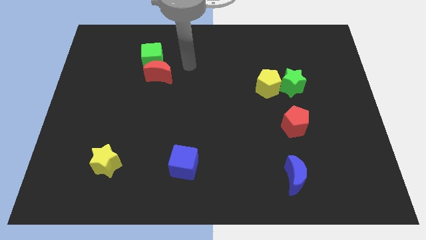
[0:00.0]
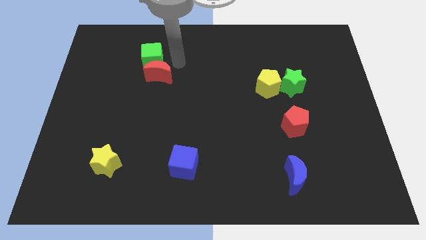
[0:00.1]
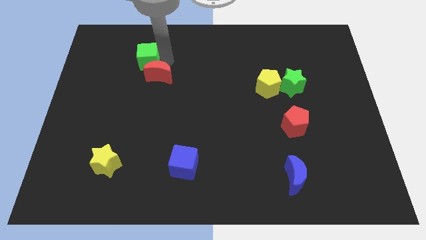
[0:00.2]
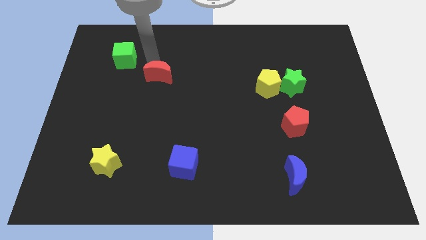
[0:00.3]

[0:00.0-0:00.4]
move the red moon away from the green cube

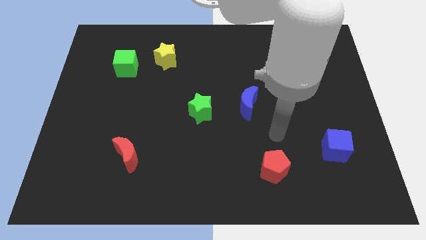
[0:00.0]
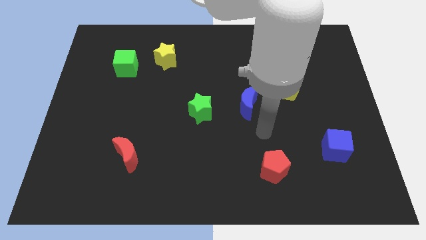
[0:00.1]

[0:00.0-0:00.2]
pull the green cube apart from the yellow star

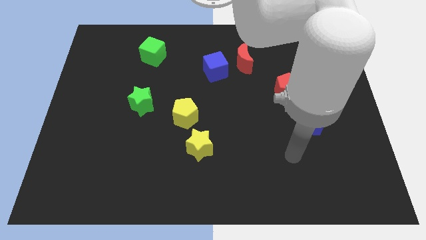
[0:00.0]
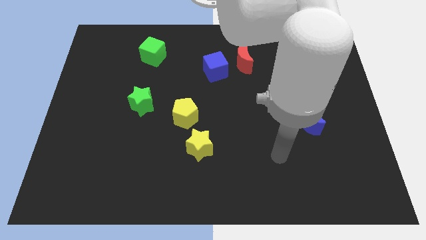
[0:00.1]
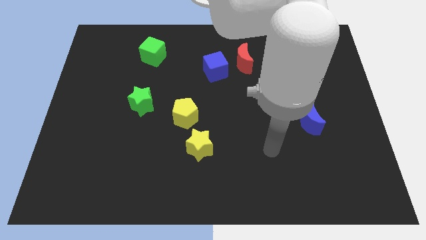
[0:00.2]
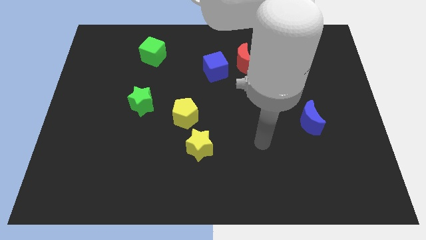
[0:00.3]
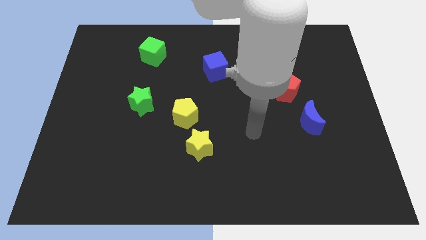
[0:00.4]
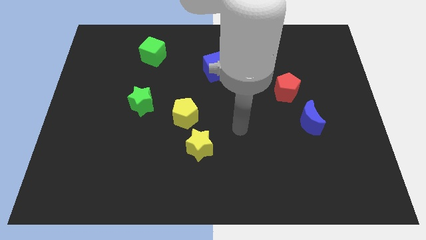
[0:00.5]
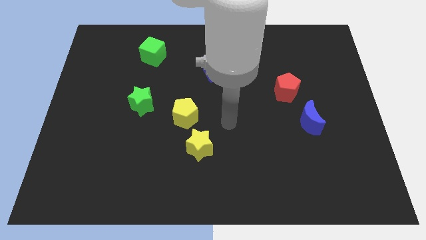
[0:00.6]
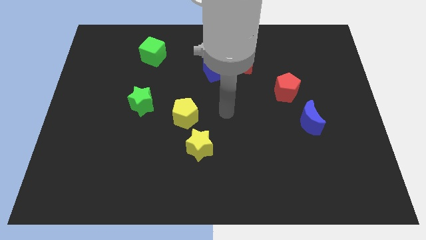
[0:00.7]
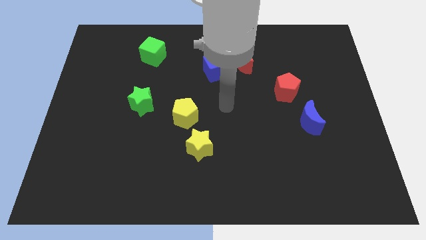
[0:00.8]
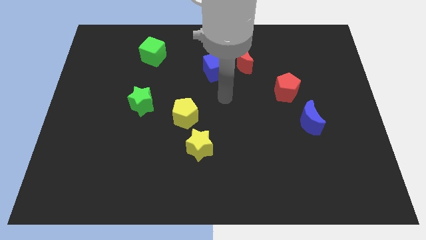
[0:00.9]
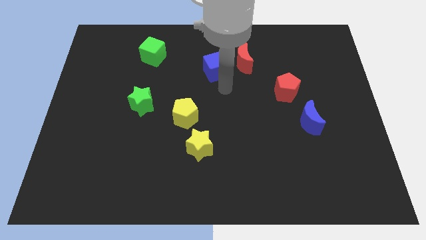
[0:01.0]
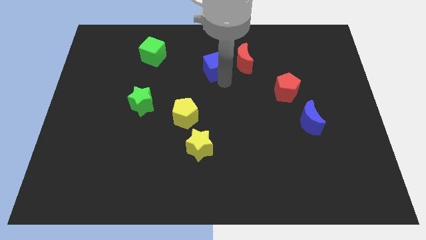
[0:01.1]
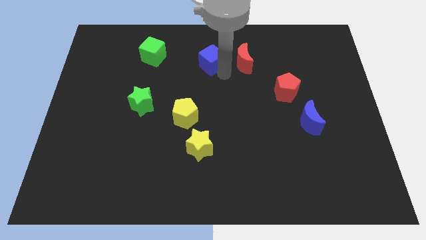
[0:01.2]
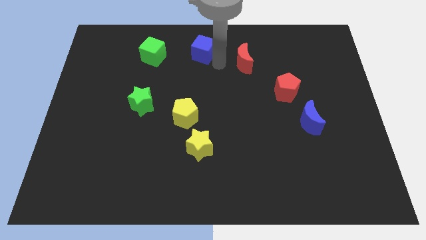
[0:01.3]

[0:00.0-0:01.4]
separate the red moon from the blue cube

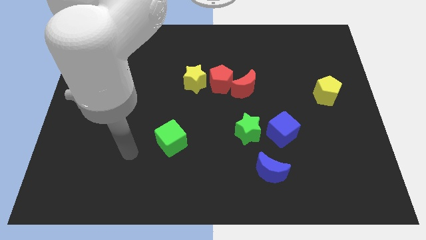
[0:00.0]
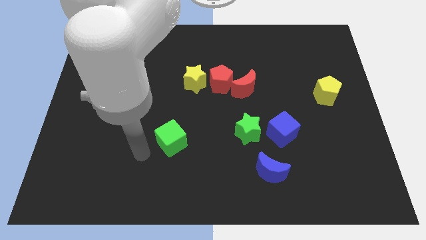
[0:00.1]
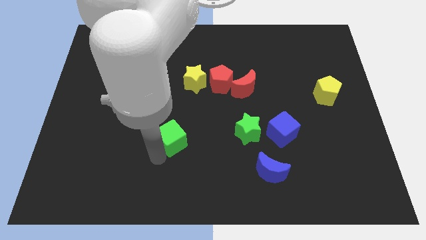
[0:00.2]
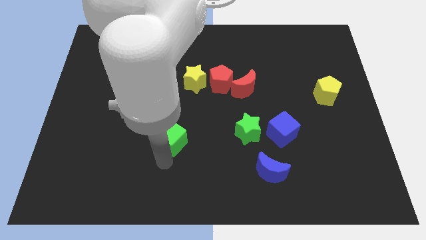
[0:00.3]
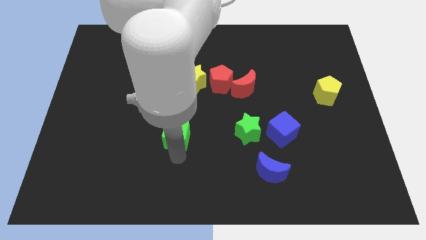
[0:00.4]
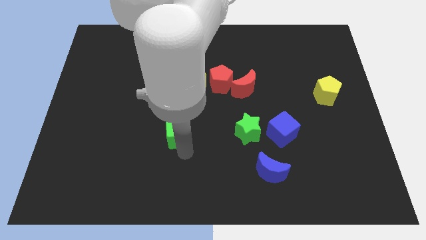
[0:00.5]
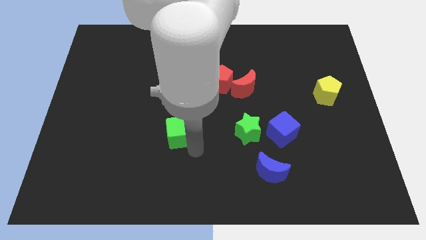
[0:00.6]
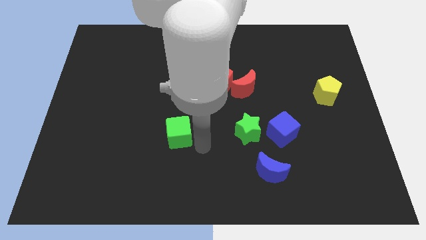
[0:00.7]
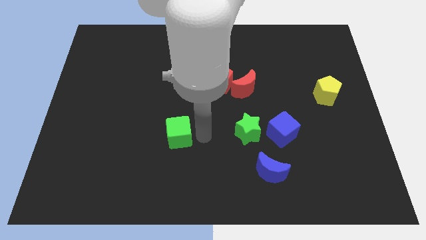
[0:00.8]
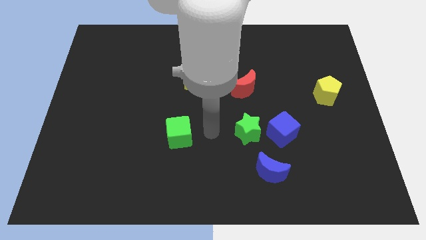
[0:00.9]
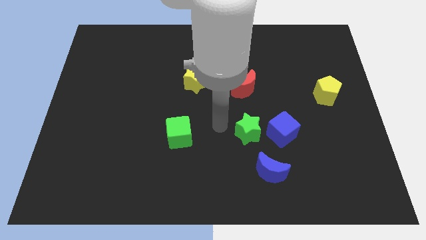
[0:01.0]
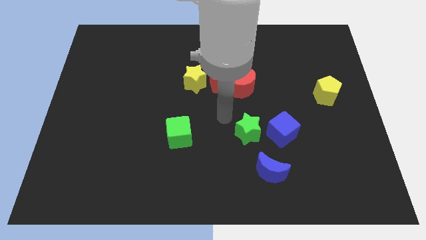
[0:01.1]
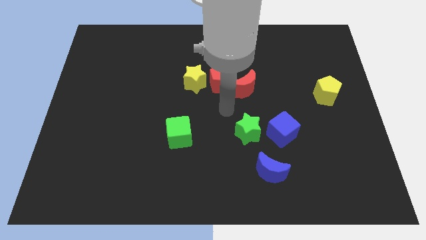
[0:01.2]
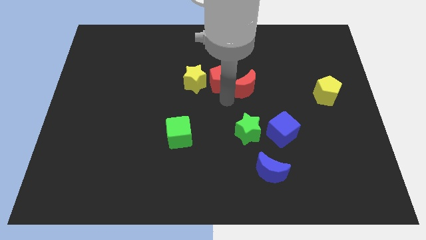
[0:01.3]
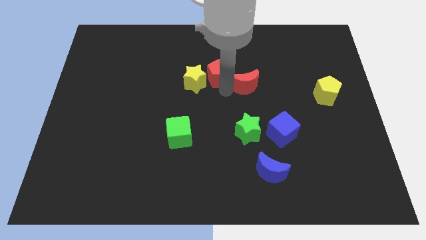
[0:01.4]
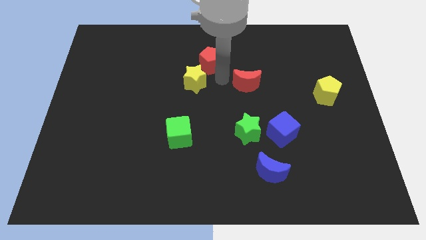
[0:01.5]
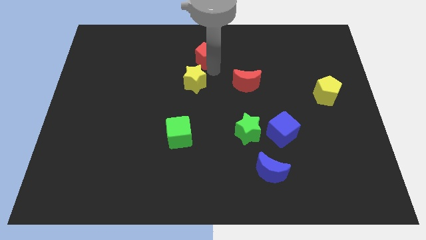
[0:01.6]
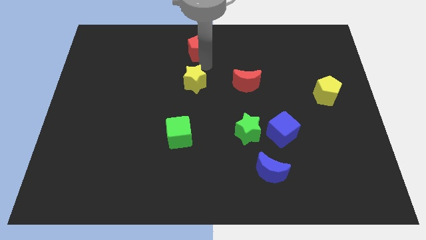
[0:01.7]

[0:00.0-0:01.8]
separate the yellow star from the red pentagon

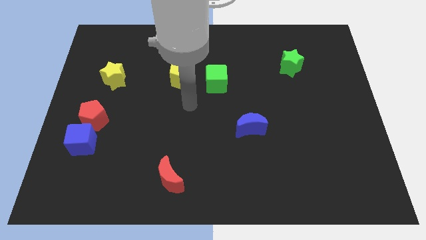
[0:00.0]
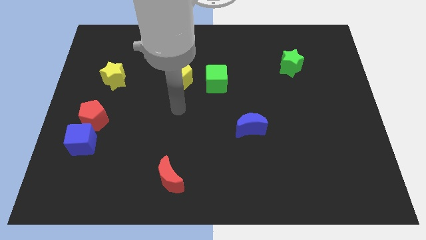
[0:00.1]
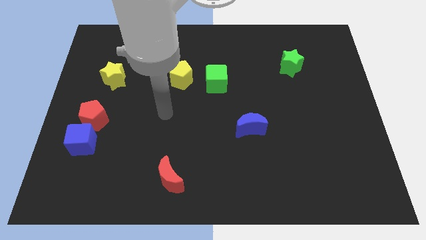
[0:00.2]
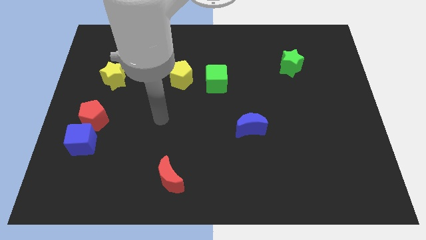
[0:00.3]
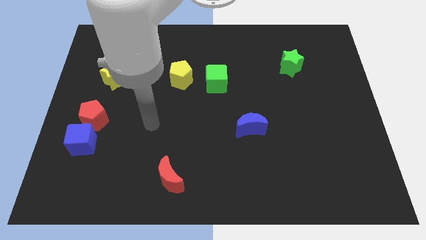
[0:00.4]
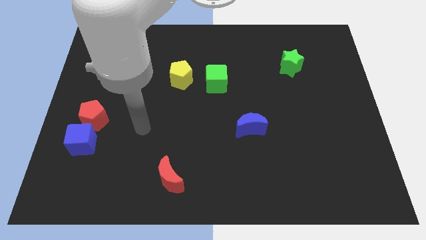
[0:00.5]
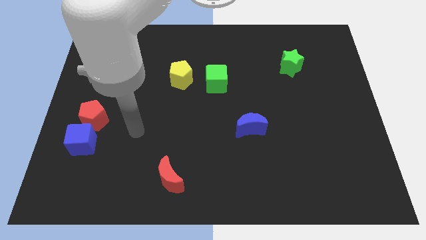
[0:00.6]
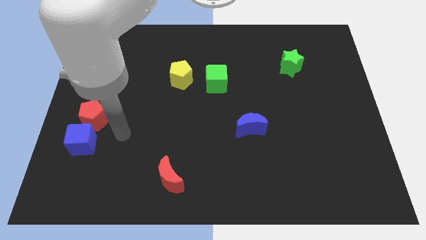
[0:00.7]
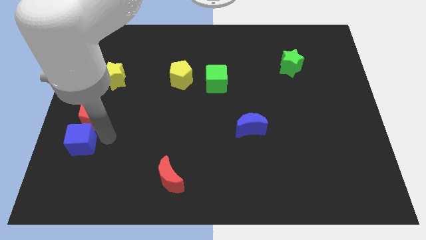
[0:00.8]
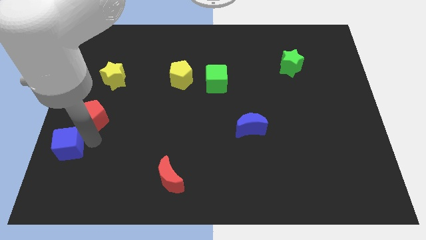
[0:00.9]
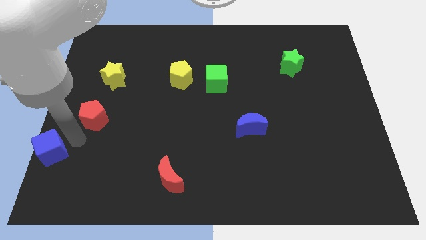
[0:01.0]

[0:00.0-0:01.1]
pull the red pentagon apart from the blue cube

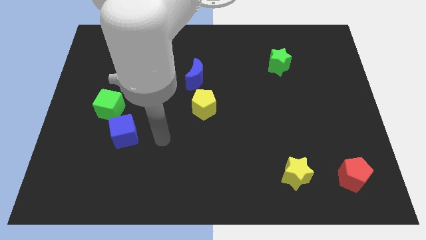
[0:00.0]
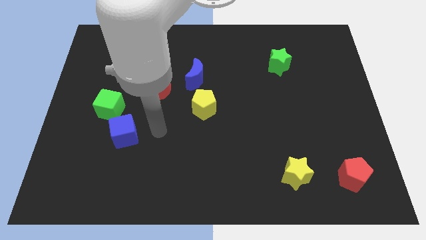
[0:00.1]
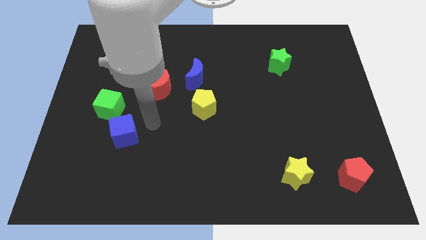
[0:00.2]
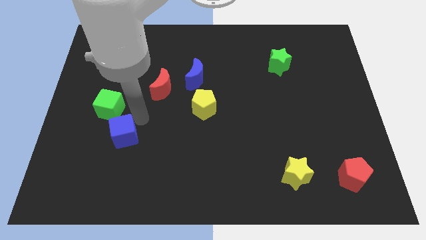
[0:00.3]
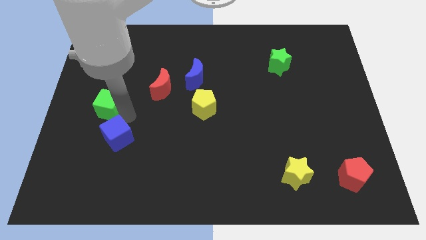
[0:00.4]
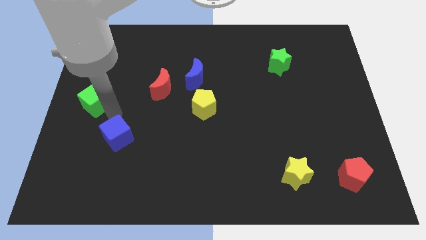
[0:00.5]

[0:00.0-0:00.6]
separate the blue cube from the green cube

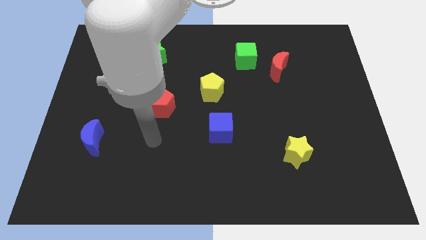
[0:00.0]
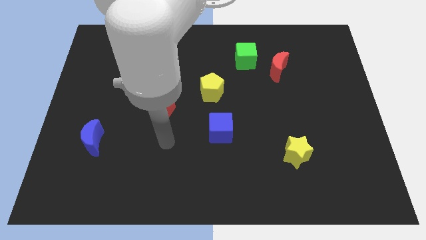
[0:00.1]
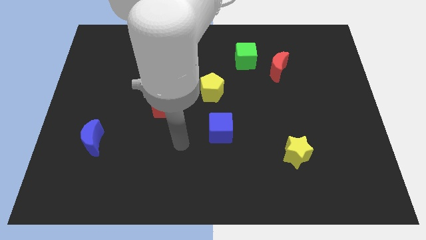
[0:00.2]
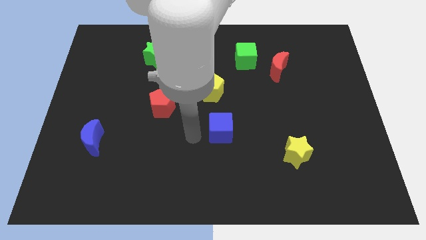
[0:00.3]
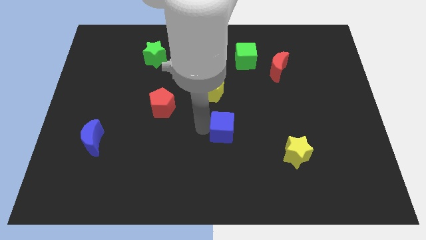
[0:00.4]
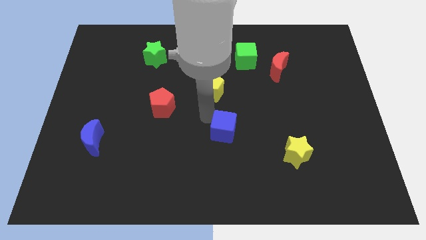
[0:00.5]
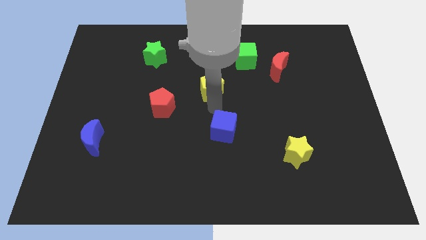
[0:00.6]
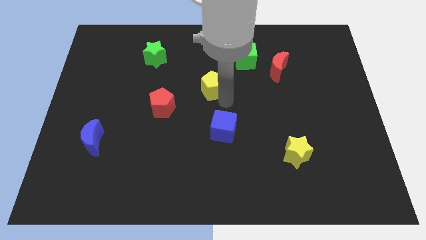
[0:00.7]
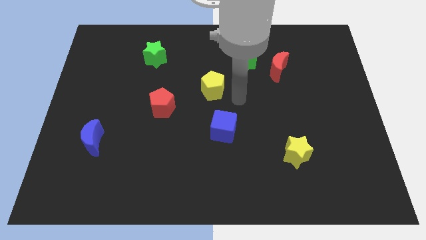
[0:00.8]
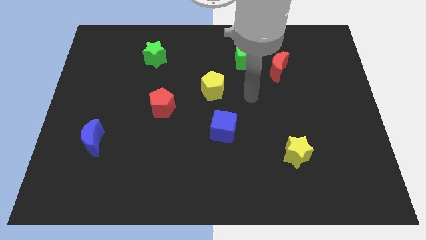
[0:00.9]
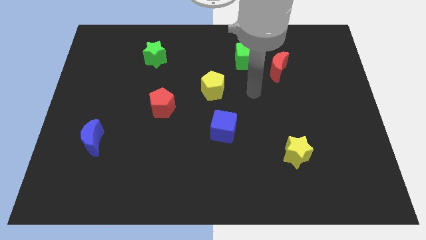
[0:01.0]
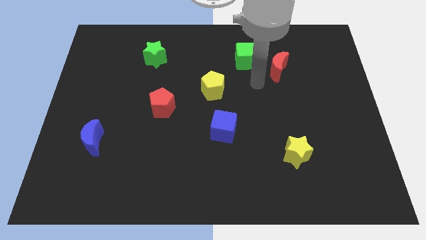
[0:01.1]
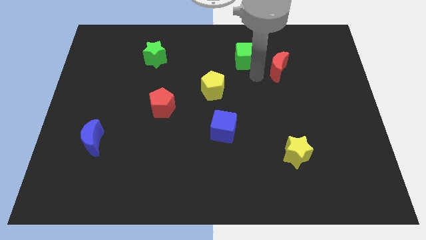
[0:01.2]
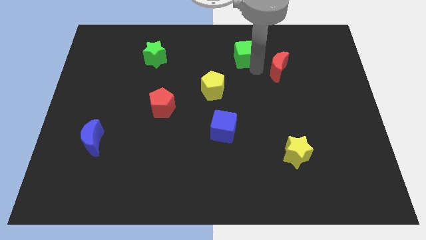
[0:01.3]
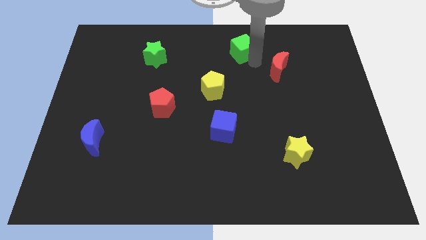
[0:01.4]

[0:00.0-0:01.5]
separate the red moon from the green cube

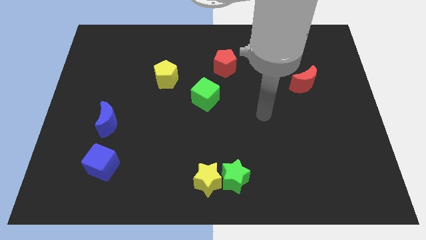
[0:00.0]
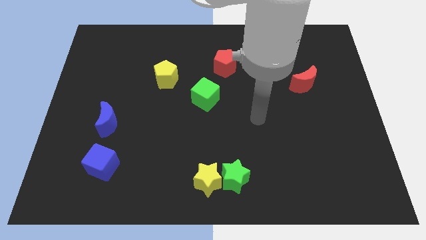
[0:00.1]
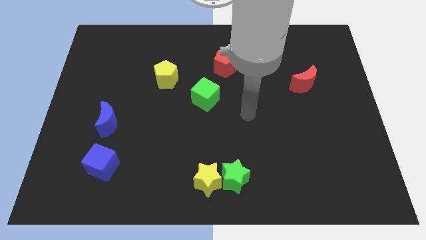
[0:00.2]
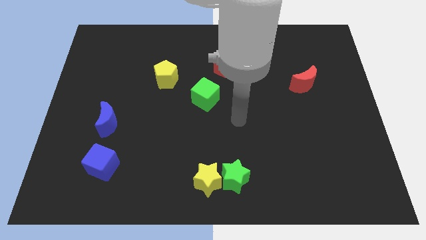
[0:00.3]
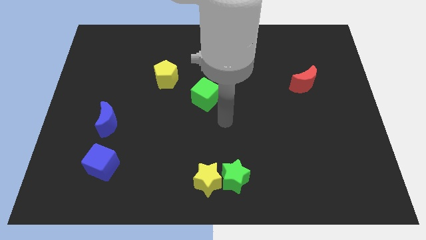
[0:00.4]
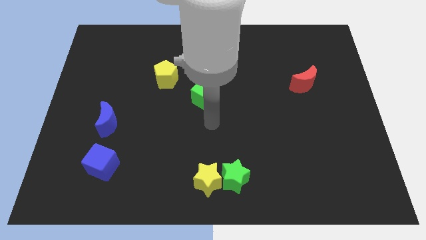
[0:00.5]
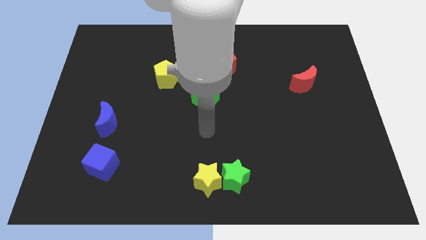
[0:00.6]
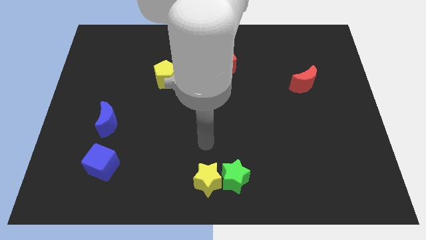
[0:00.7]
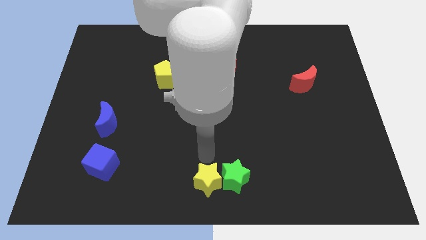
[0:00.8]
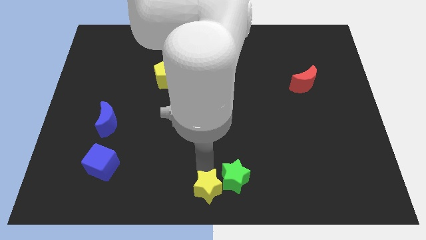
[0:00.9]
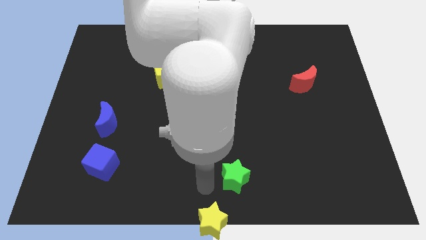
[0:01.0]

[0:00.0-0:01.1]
separate the green star from the yellow star

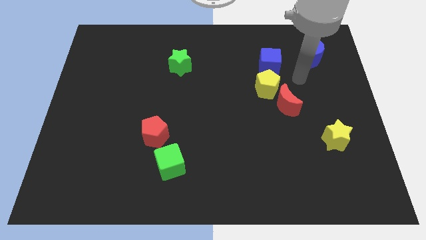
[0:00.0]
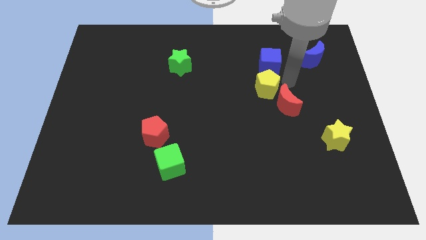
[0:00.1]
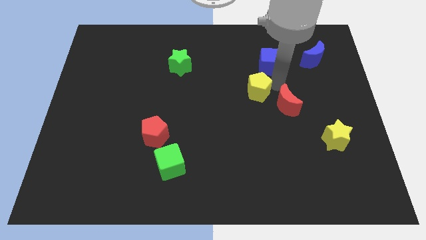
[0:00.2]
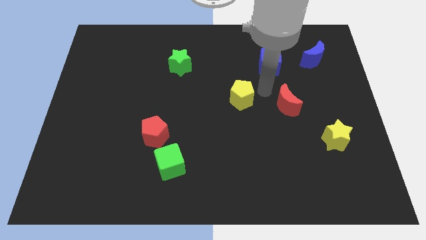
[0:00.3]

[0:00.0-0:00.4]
pull the red moon apart from the yellow pentagon

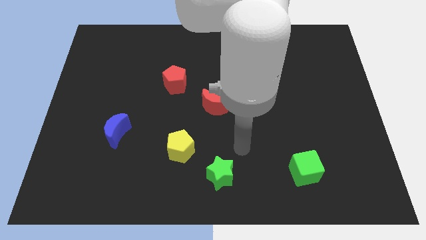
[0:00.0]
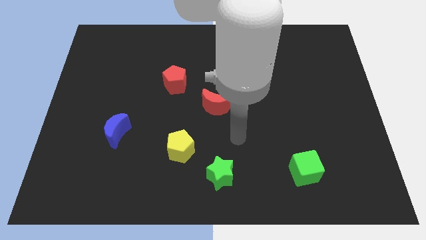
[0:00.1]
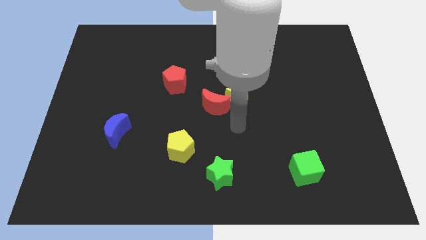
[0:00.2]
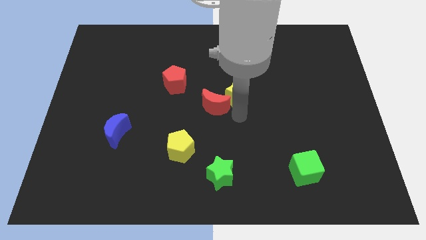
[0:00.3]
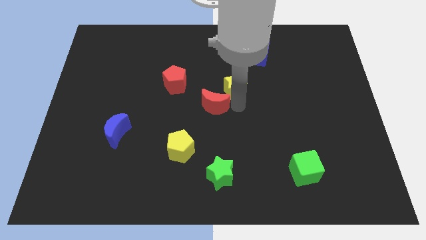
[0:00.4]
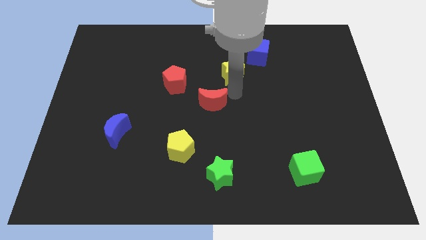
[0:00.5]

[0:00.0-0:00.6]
move the red moon away from the yellow star

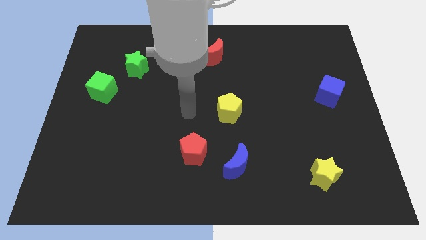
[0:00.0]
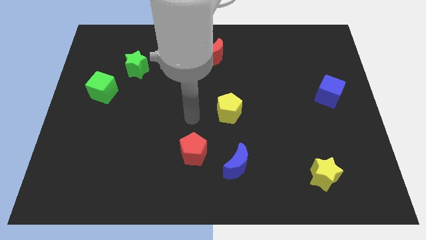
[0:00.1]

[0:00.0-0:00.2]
separate the red pentagon from the blue moon
